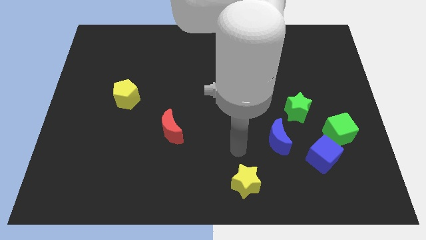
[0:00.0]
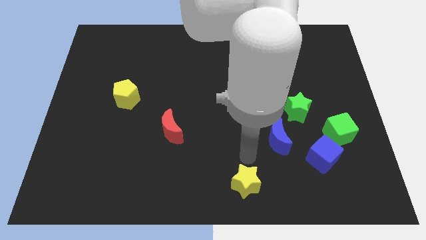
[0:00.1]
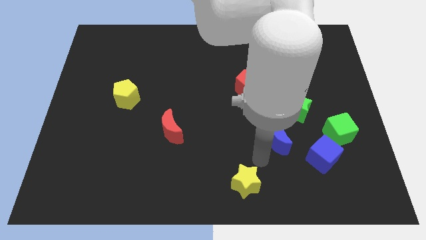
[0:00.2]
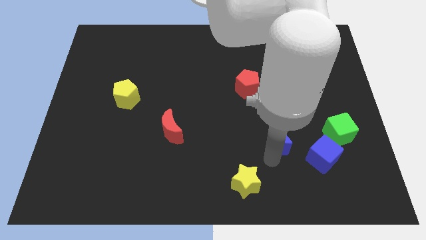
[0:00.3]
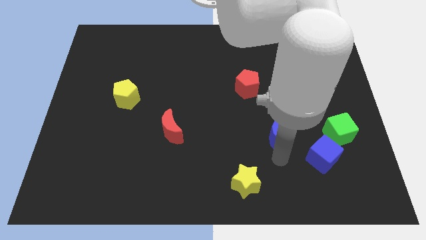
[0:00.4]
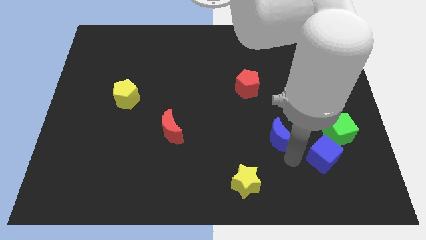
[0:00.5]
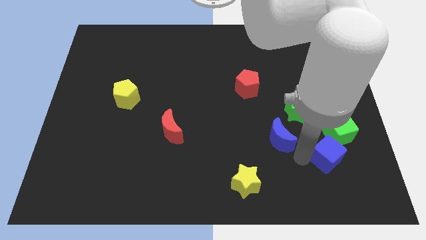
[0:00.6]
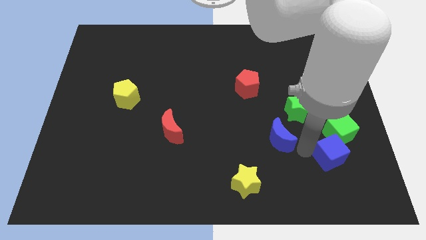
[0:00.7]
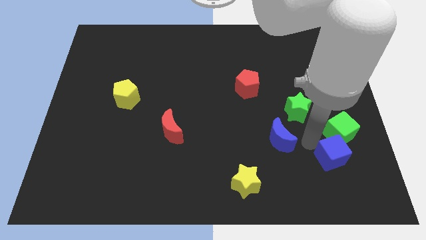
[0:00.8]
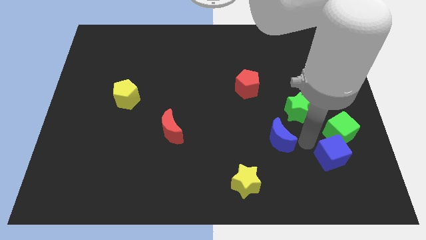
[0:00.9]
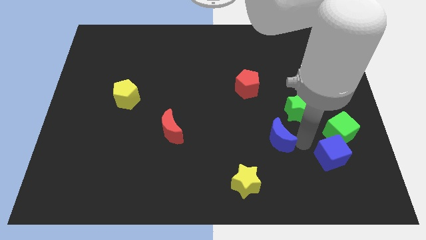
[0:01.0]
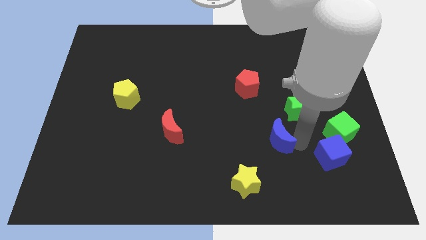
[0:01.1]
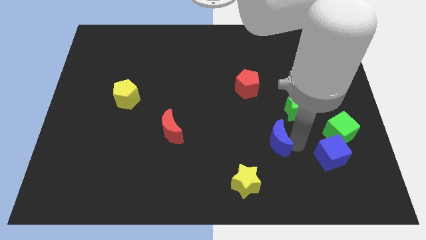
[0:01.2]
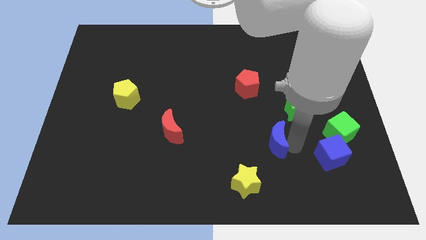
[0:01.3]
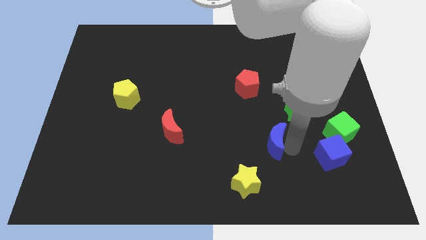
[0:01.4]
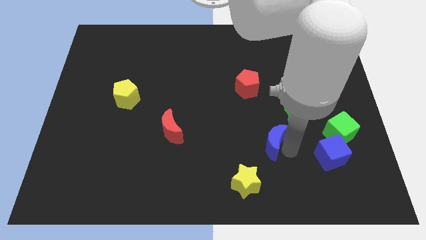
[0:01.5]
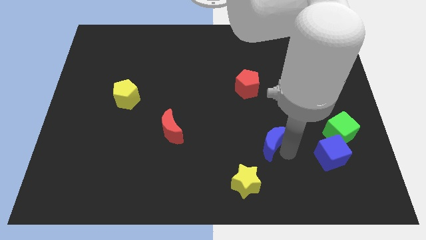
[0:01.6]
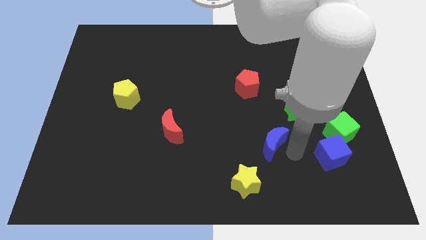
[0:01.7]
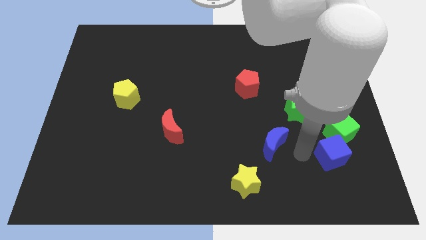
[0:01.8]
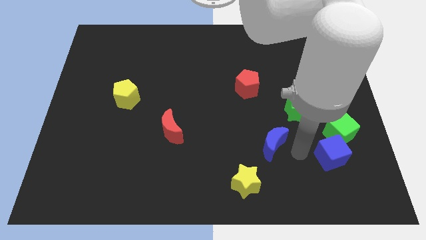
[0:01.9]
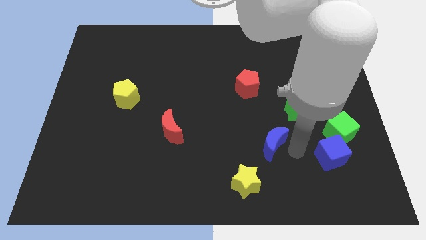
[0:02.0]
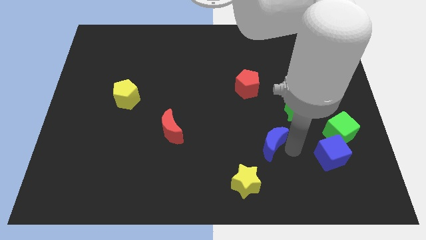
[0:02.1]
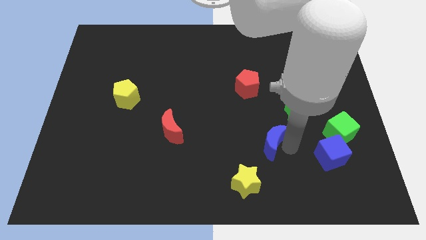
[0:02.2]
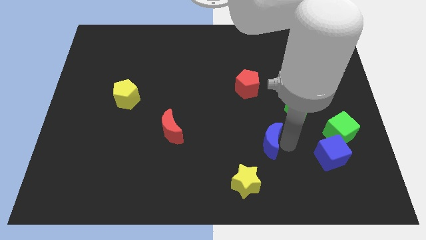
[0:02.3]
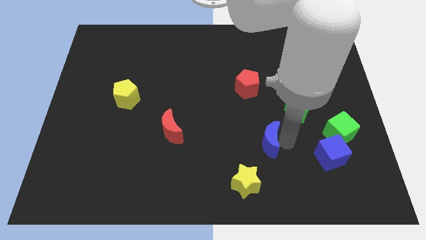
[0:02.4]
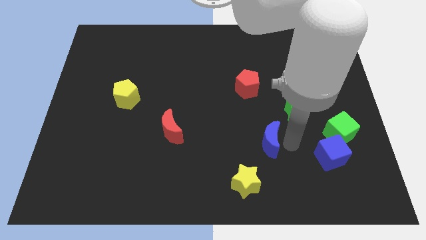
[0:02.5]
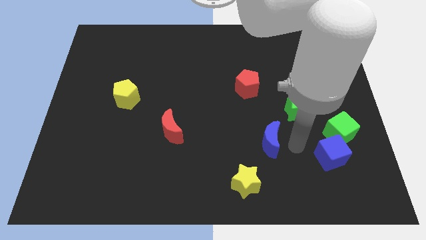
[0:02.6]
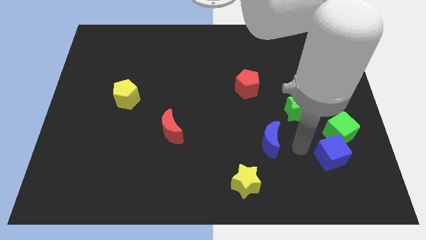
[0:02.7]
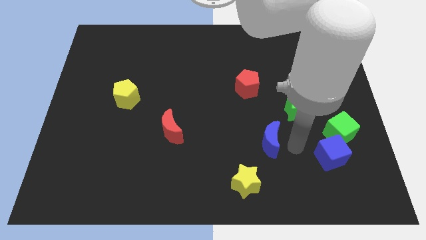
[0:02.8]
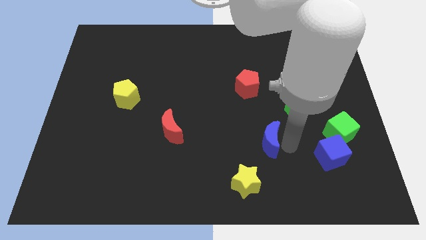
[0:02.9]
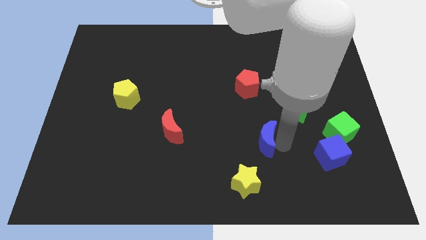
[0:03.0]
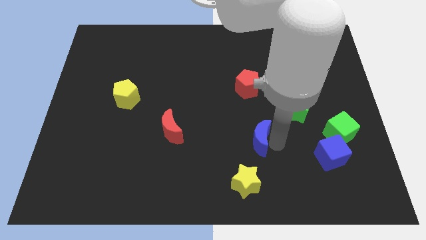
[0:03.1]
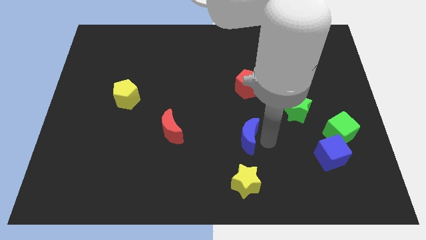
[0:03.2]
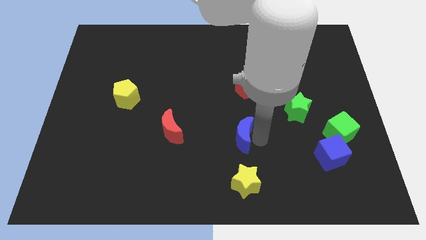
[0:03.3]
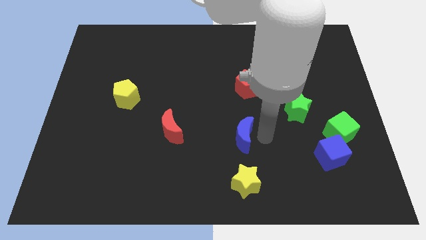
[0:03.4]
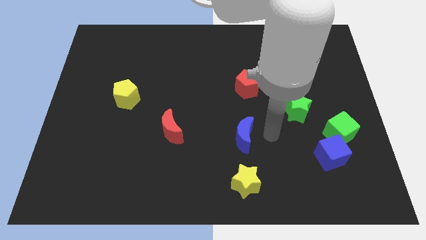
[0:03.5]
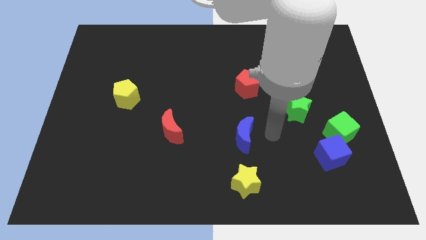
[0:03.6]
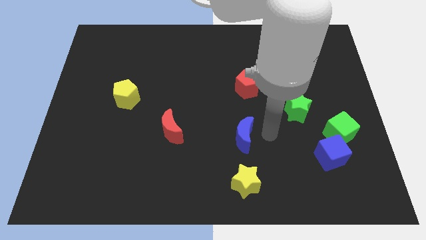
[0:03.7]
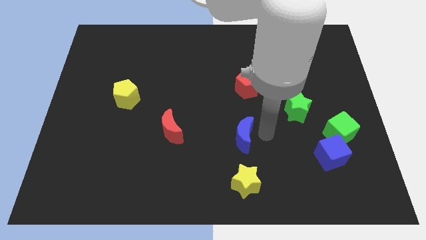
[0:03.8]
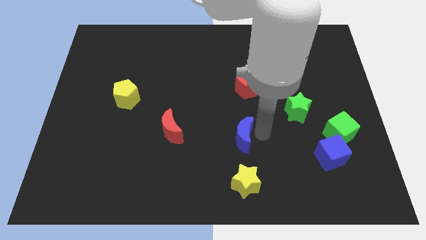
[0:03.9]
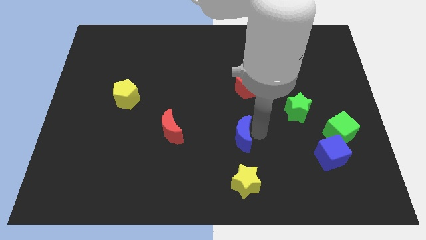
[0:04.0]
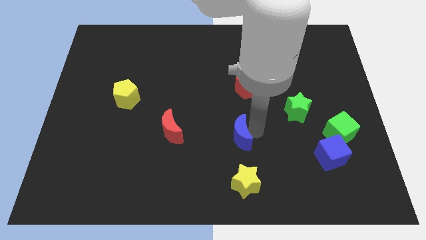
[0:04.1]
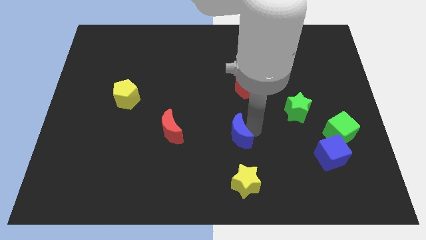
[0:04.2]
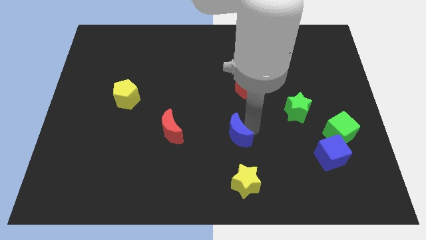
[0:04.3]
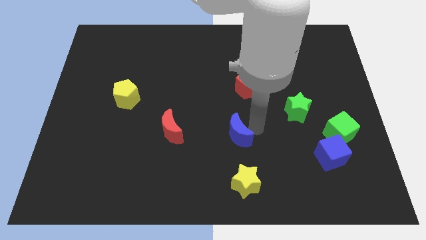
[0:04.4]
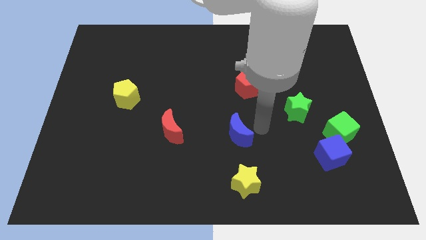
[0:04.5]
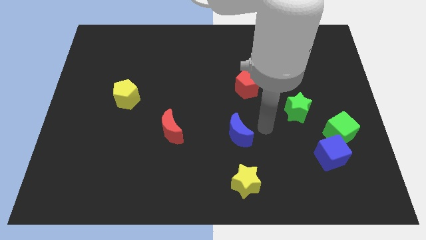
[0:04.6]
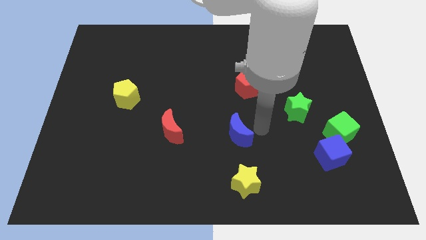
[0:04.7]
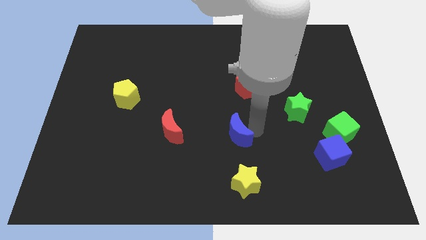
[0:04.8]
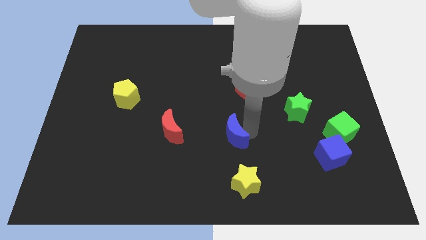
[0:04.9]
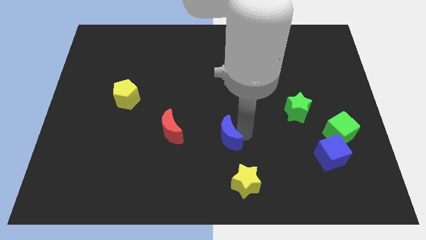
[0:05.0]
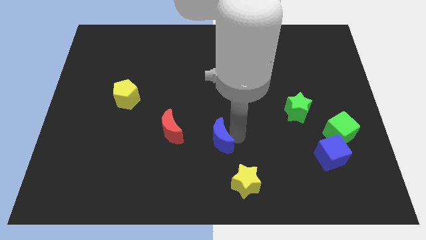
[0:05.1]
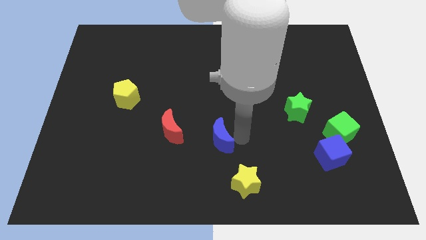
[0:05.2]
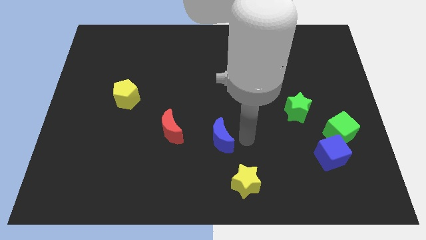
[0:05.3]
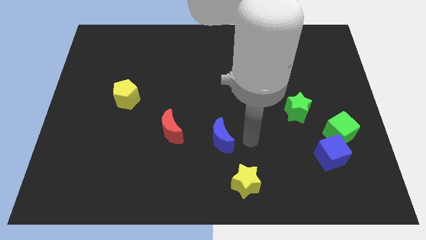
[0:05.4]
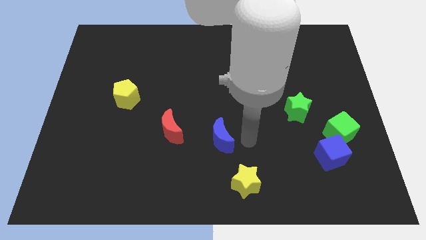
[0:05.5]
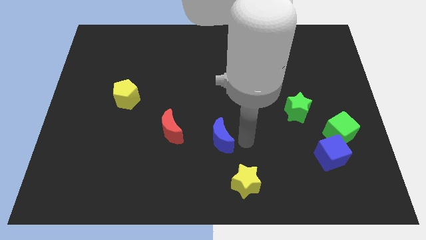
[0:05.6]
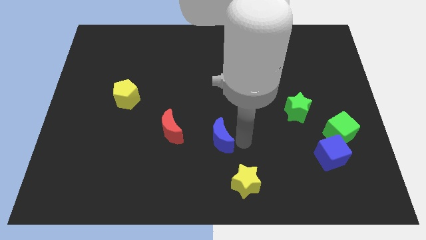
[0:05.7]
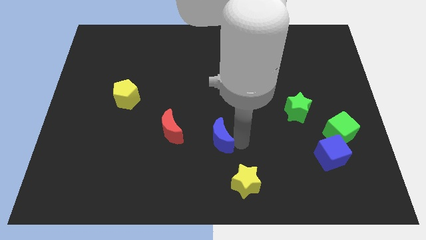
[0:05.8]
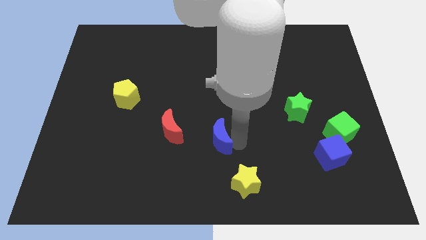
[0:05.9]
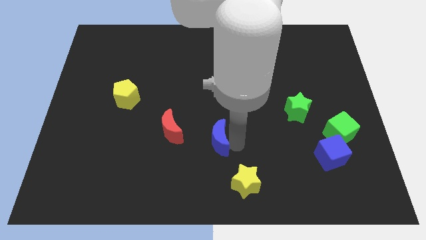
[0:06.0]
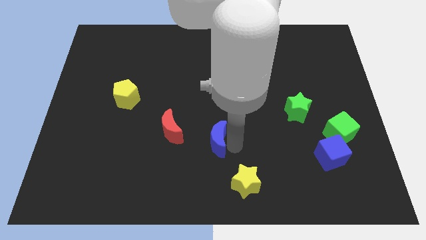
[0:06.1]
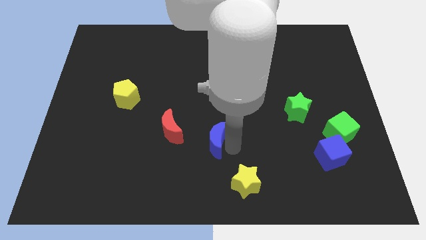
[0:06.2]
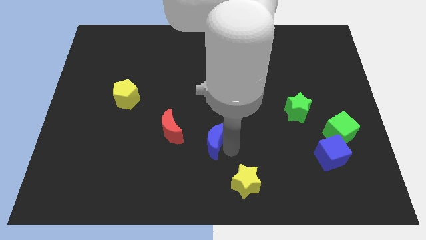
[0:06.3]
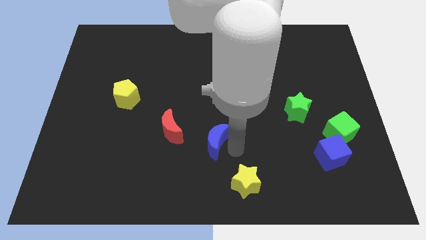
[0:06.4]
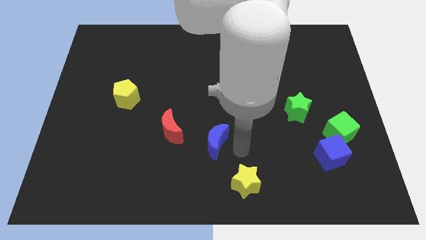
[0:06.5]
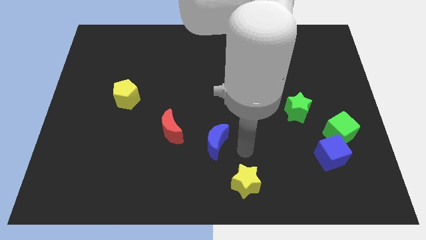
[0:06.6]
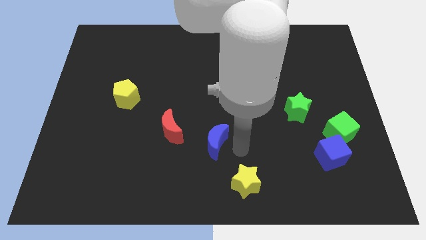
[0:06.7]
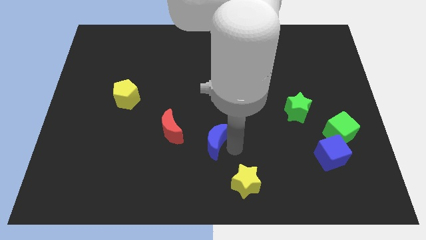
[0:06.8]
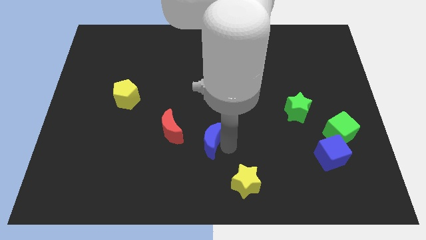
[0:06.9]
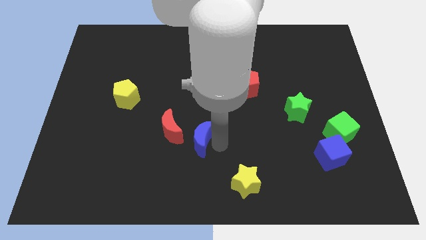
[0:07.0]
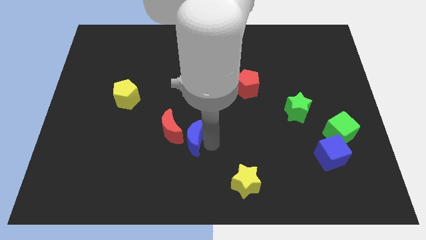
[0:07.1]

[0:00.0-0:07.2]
put the blue moon close to the red moon
